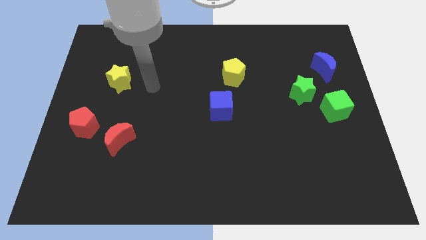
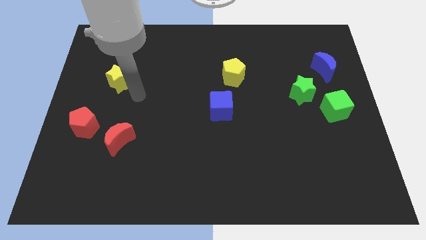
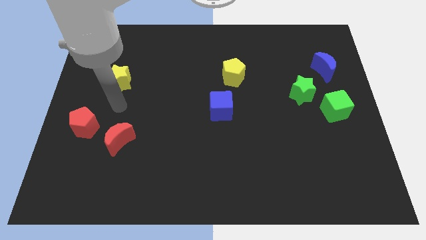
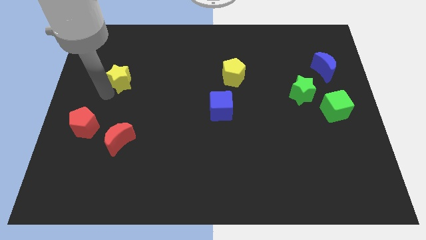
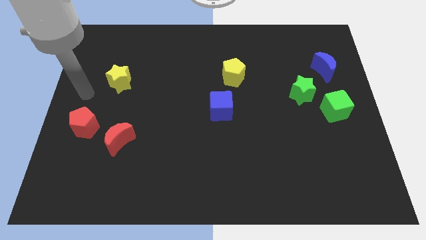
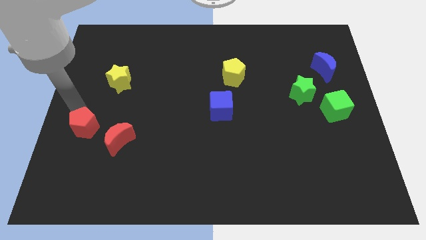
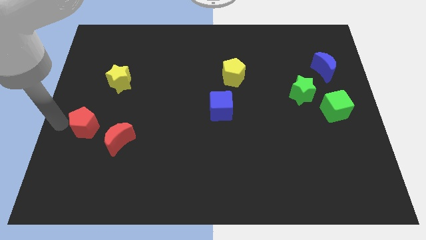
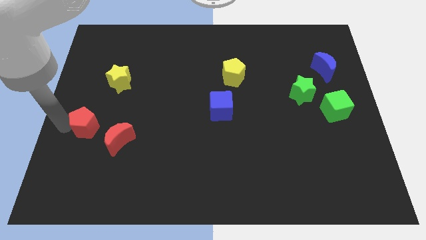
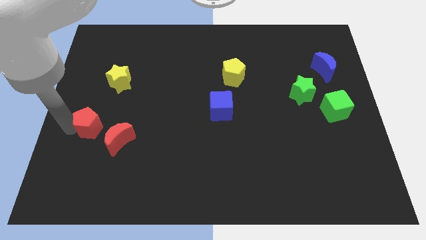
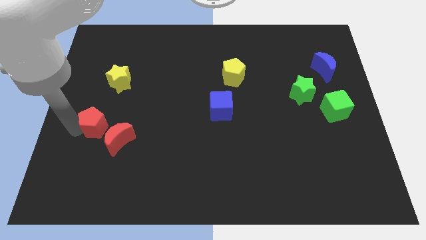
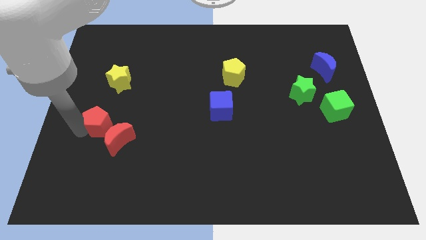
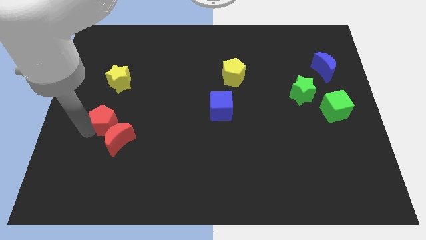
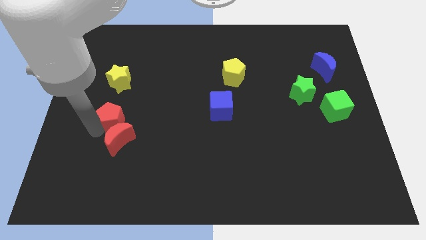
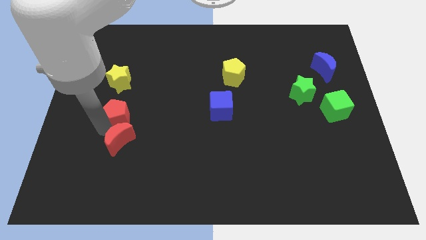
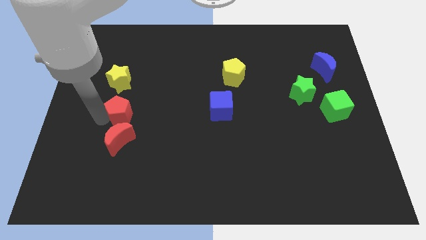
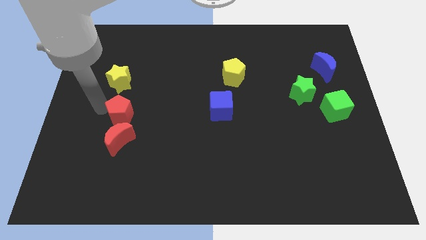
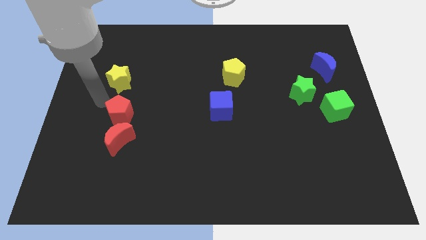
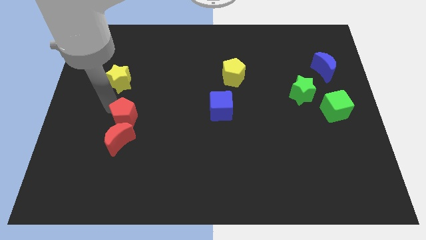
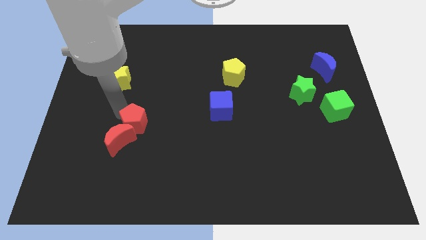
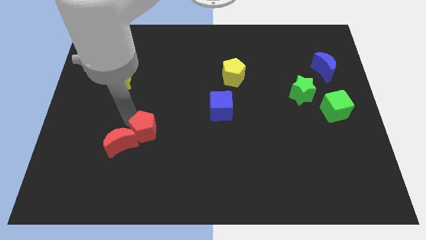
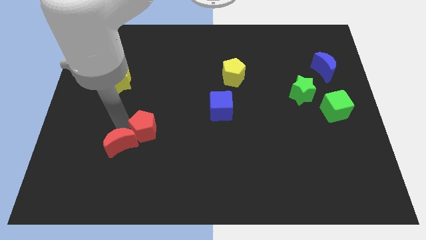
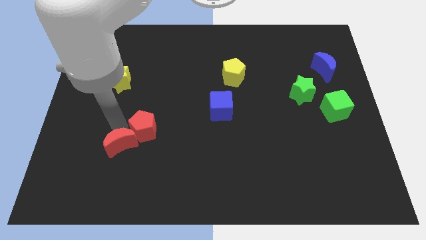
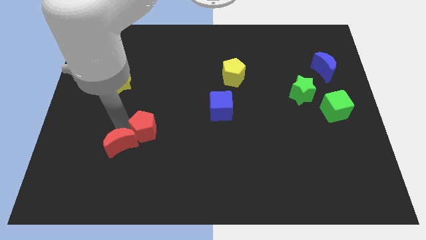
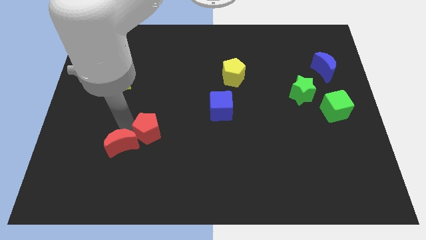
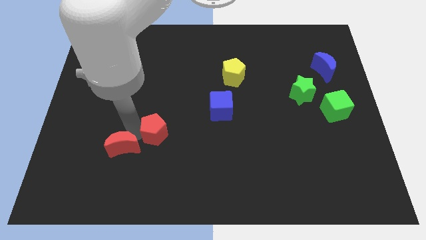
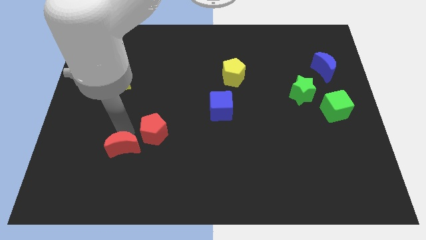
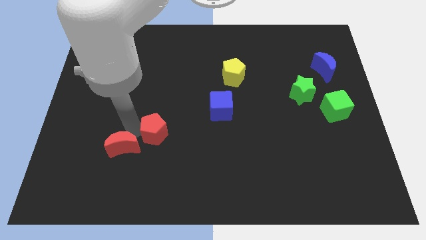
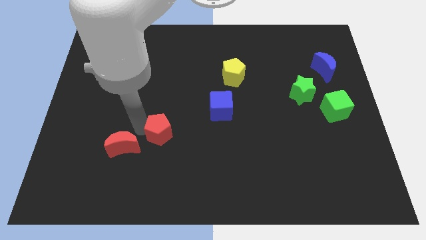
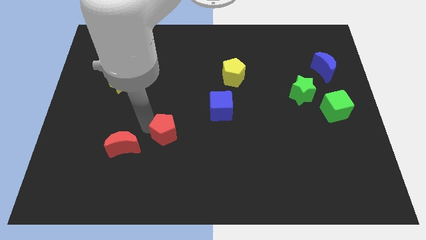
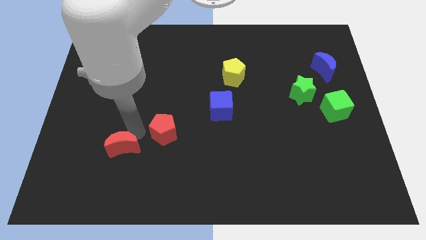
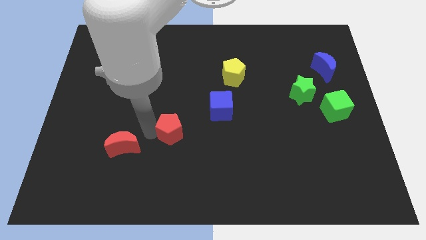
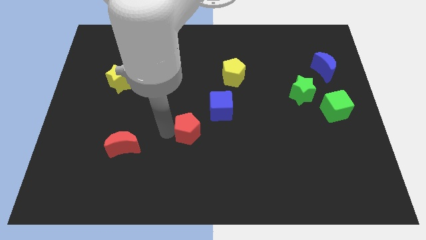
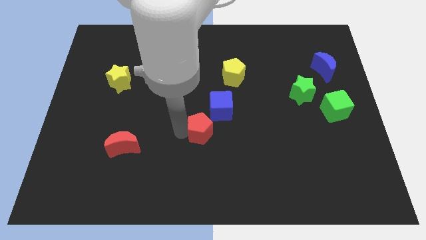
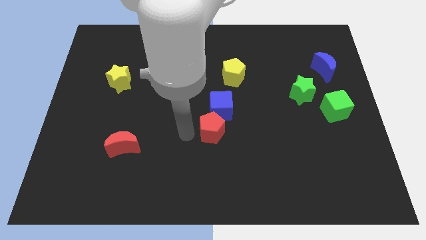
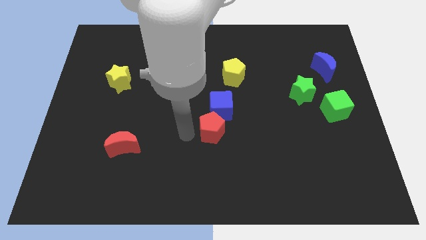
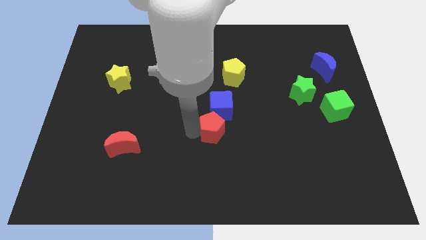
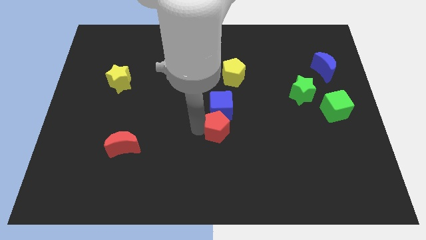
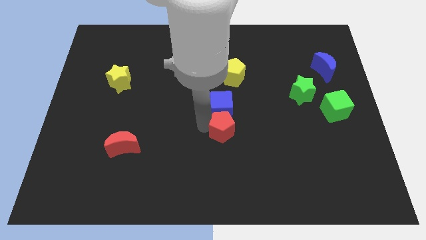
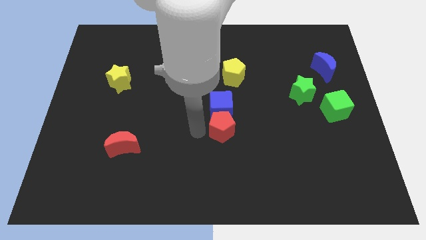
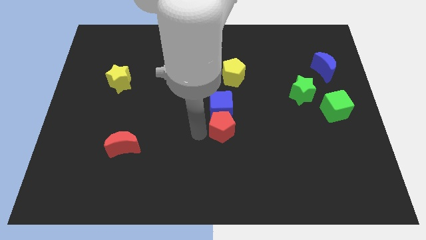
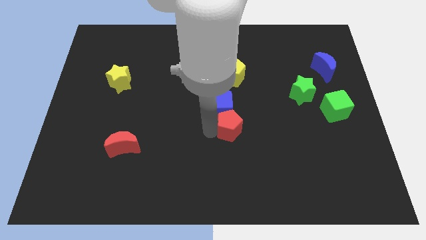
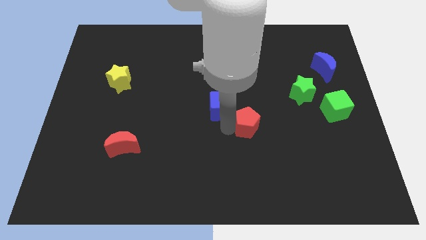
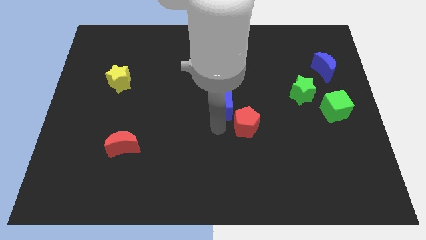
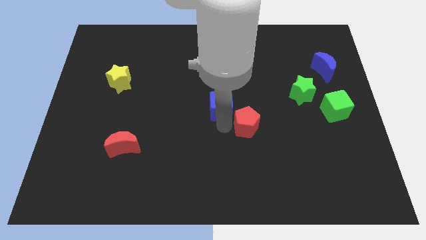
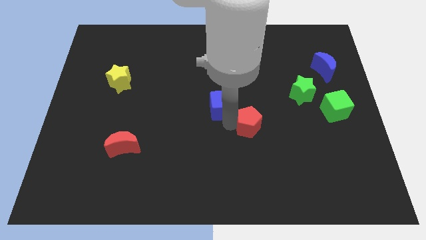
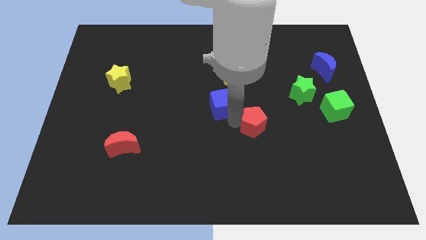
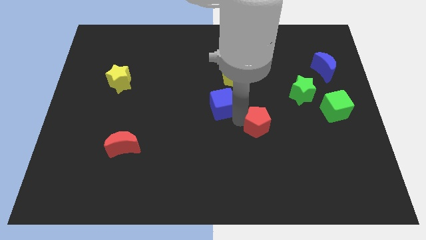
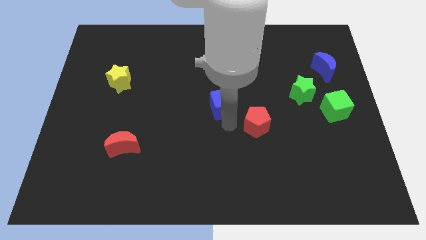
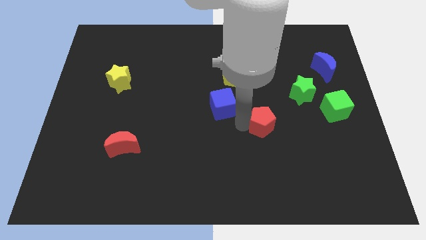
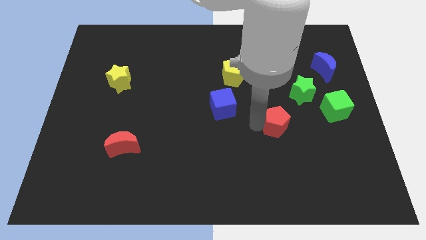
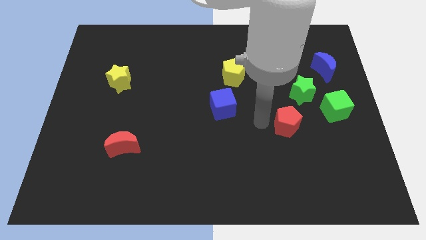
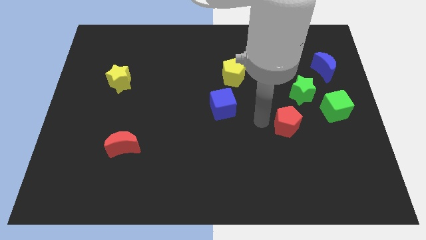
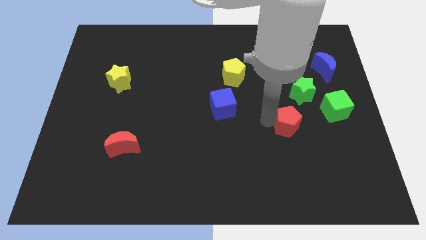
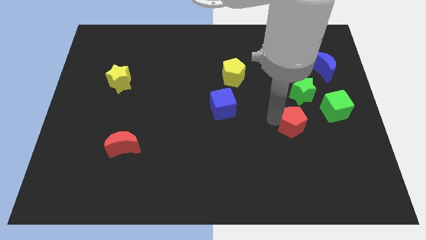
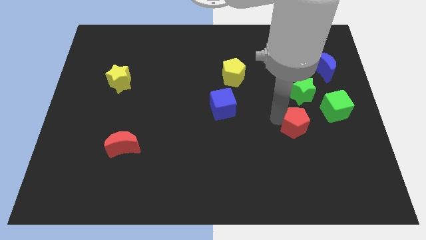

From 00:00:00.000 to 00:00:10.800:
put the red pentagon diagonally down and to the left of the green cube
